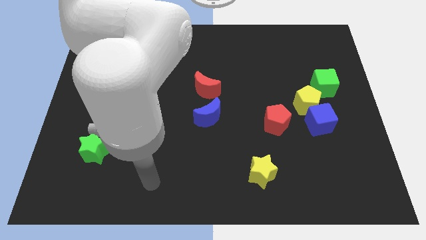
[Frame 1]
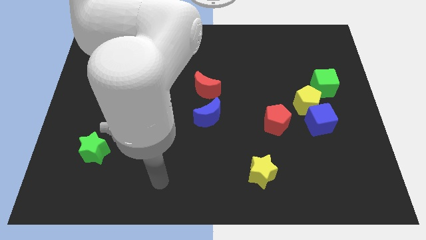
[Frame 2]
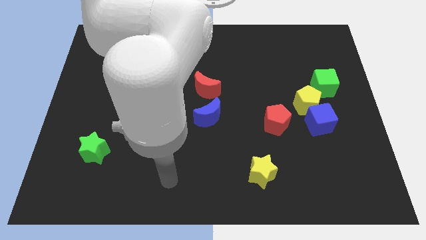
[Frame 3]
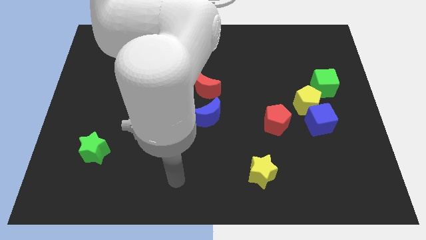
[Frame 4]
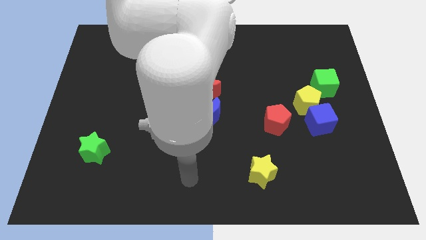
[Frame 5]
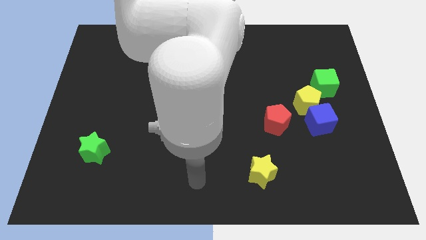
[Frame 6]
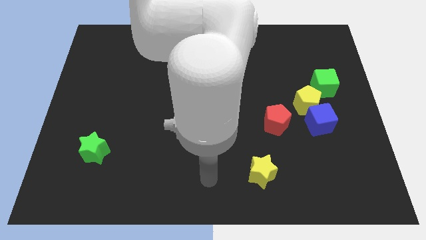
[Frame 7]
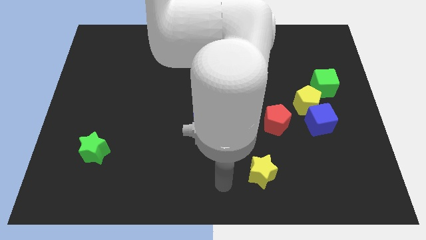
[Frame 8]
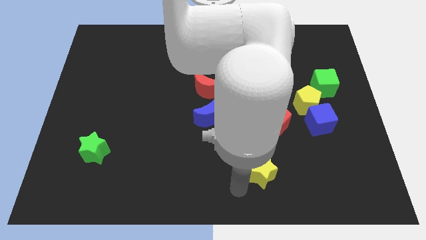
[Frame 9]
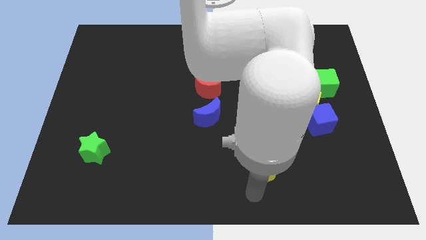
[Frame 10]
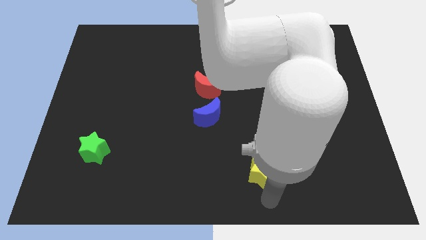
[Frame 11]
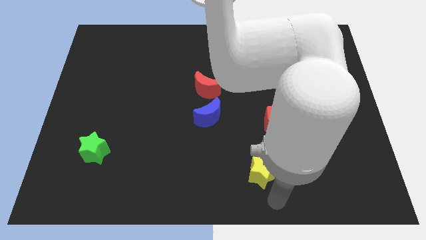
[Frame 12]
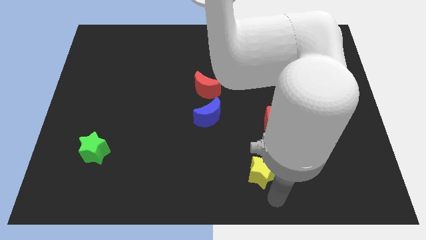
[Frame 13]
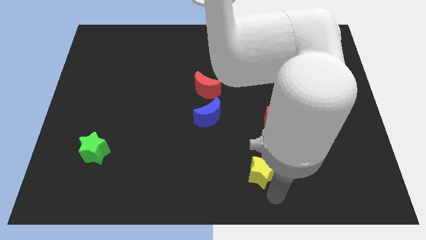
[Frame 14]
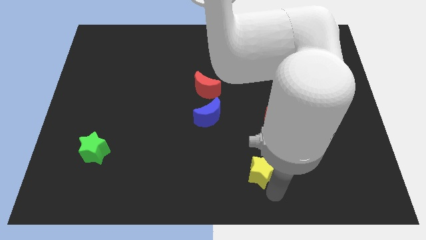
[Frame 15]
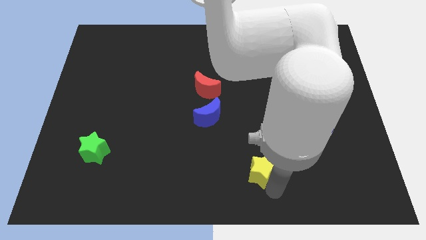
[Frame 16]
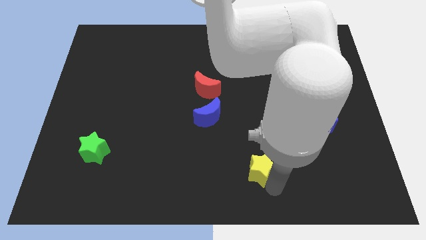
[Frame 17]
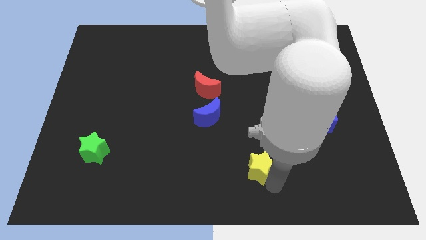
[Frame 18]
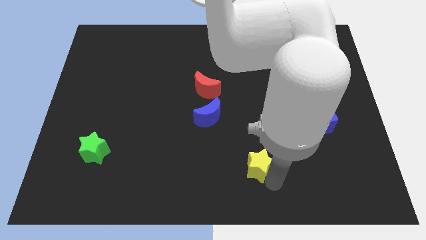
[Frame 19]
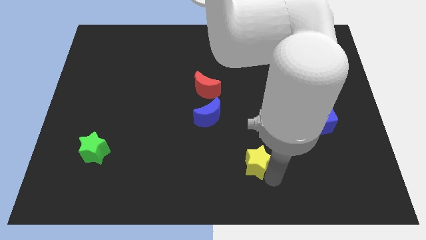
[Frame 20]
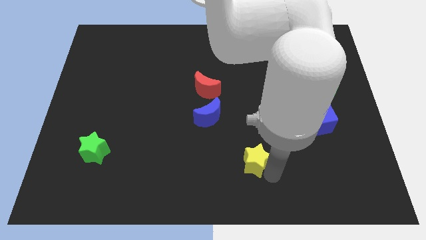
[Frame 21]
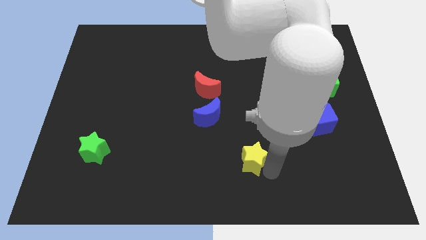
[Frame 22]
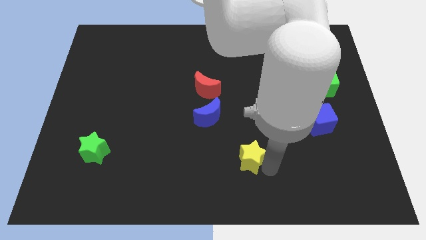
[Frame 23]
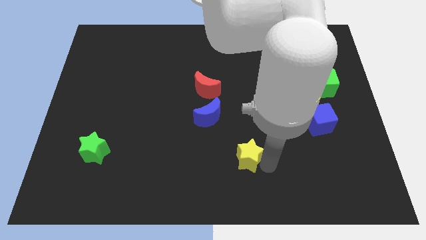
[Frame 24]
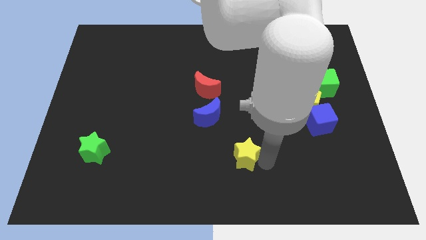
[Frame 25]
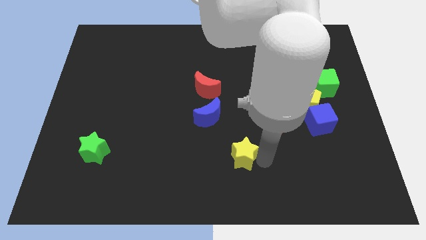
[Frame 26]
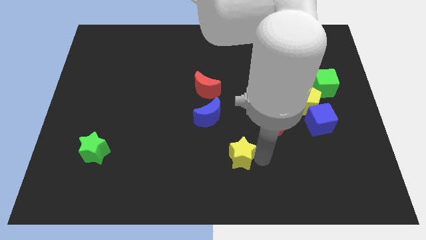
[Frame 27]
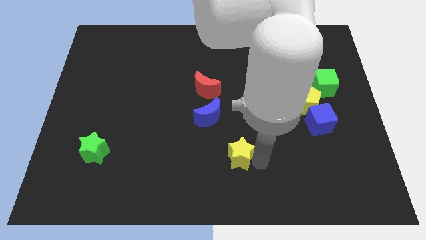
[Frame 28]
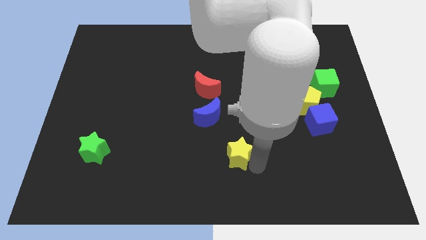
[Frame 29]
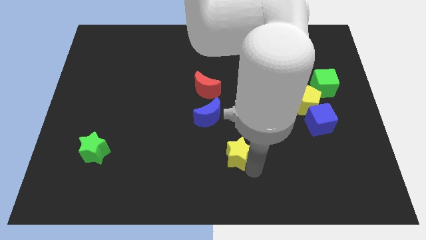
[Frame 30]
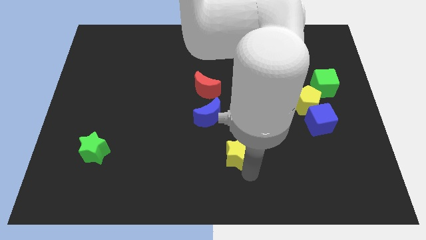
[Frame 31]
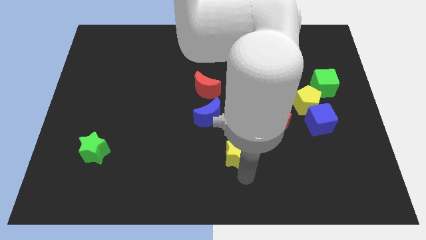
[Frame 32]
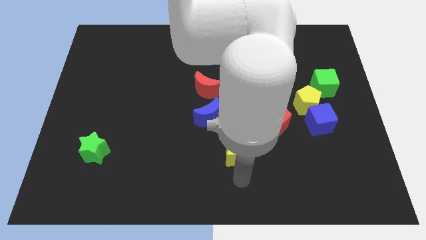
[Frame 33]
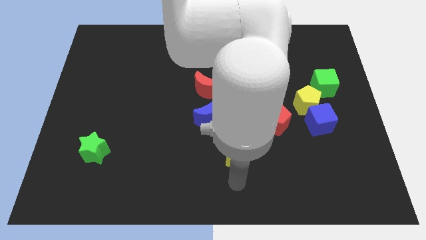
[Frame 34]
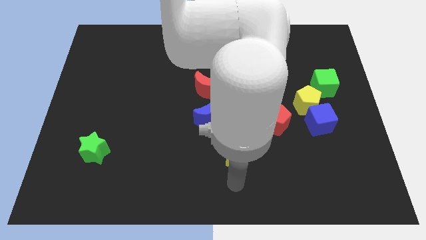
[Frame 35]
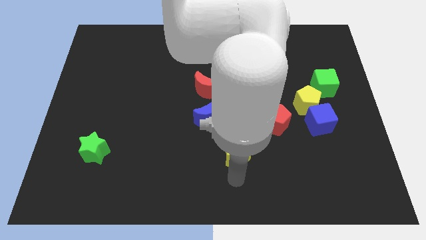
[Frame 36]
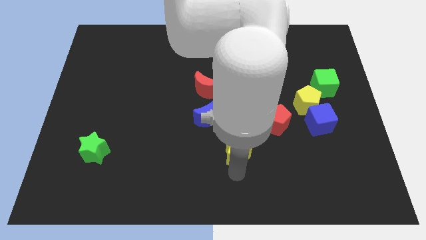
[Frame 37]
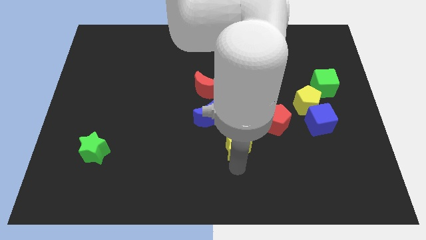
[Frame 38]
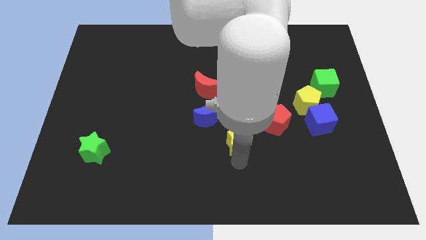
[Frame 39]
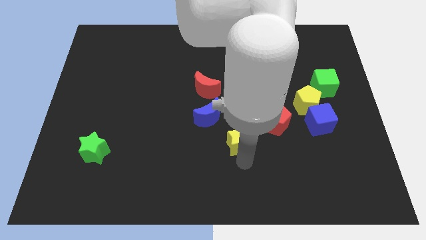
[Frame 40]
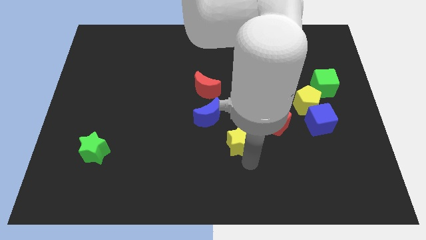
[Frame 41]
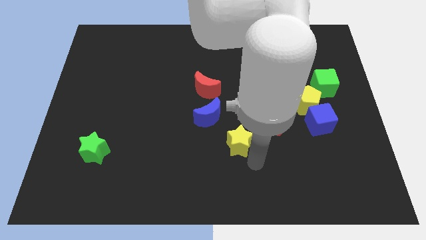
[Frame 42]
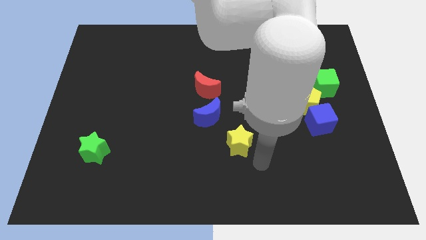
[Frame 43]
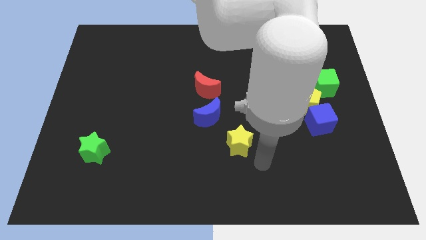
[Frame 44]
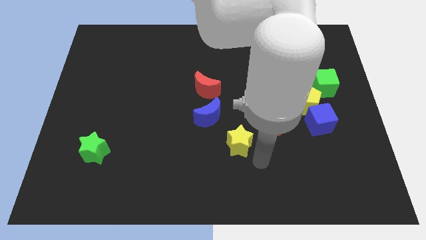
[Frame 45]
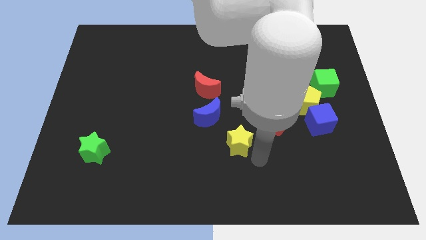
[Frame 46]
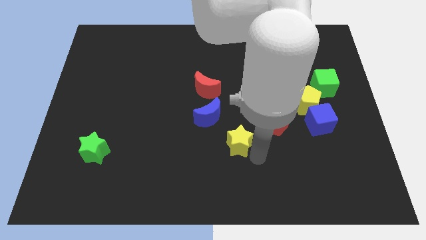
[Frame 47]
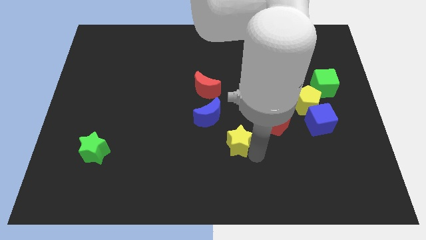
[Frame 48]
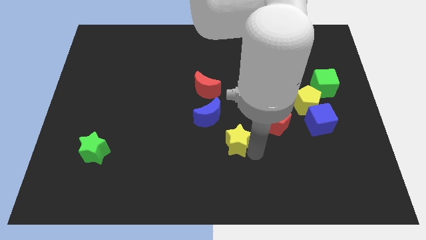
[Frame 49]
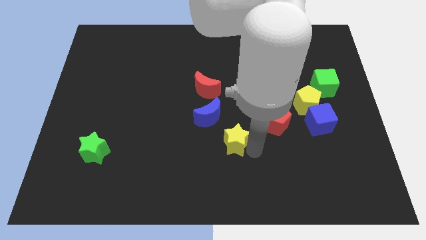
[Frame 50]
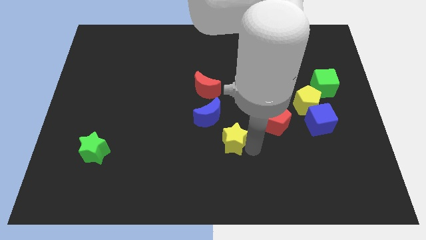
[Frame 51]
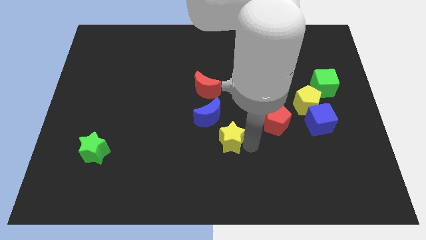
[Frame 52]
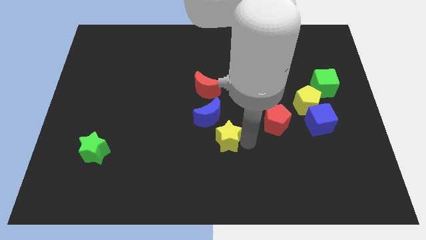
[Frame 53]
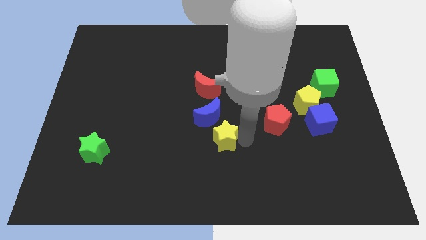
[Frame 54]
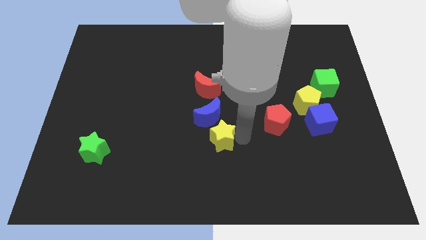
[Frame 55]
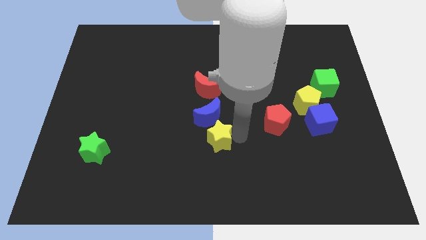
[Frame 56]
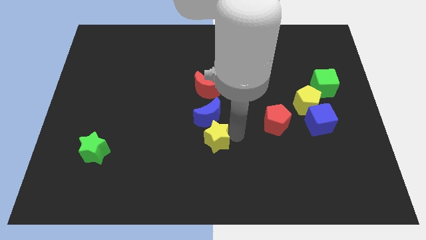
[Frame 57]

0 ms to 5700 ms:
put the yellow star to the blue moon
